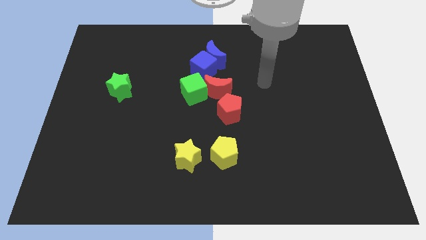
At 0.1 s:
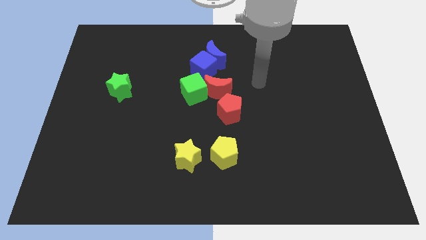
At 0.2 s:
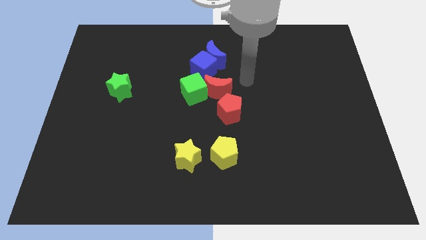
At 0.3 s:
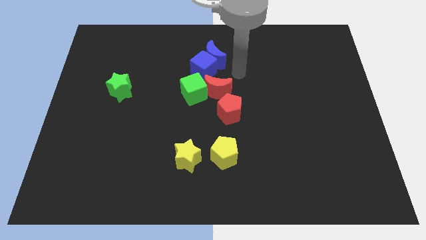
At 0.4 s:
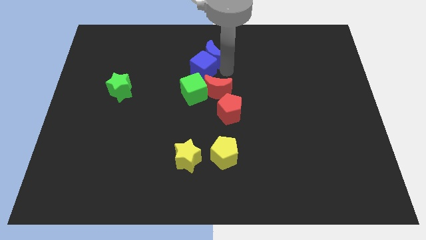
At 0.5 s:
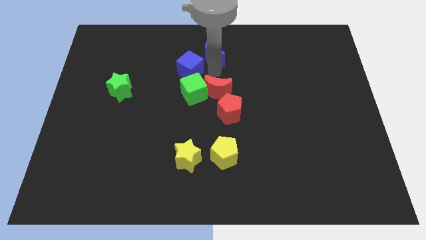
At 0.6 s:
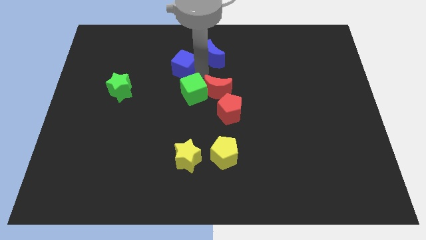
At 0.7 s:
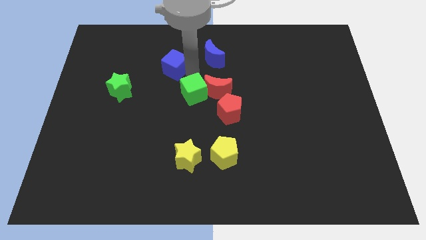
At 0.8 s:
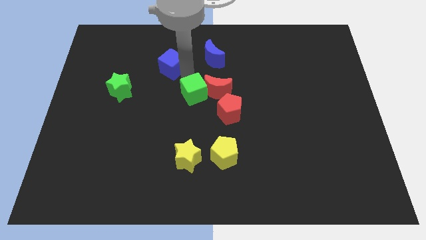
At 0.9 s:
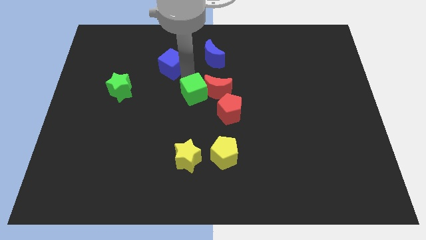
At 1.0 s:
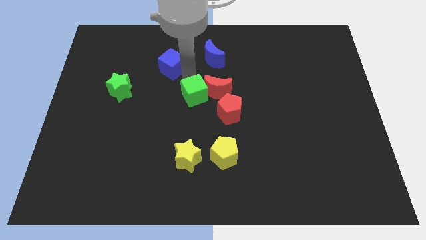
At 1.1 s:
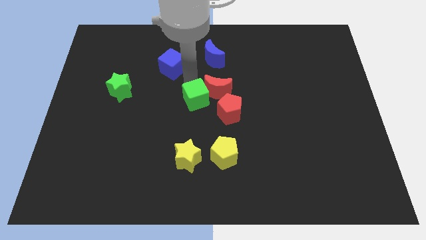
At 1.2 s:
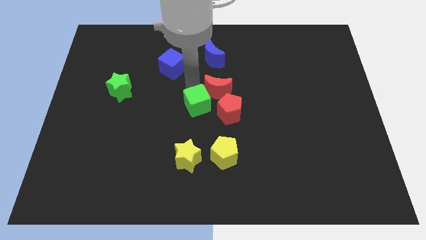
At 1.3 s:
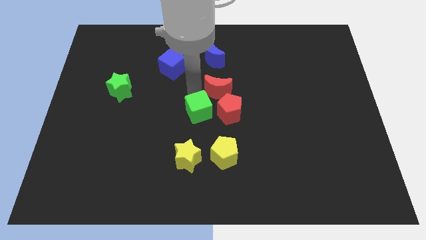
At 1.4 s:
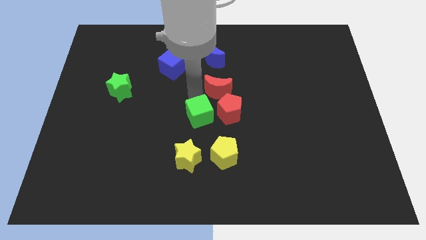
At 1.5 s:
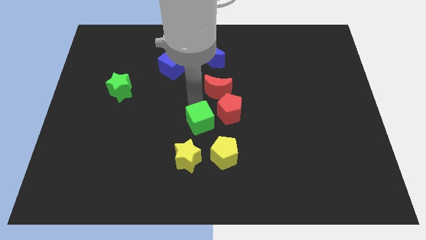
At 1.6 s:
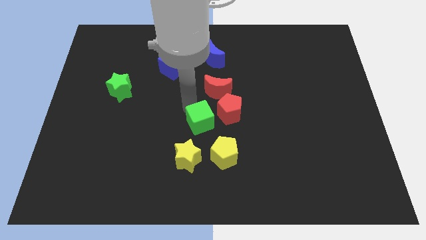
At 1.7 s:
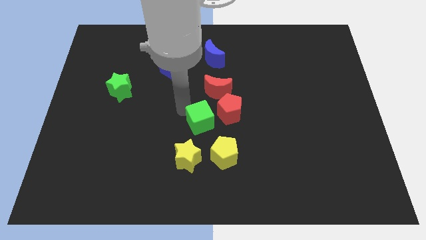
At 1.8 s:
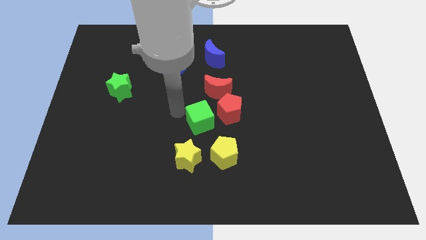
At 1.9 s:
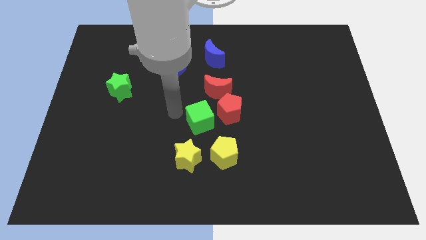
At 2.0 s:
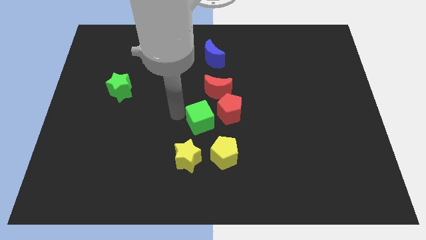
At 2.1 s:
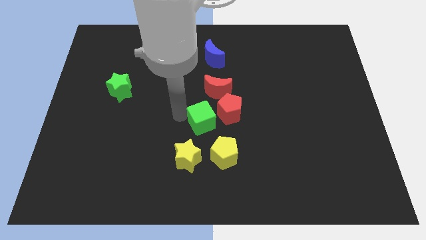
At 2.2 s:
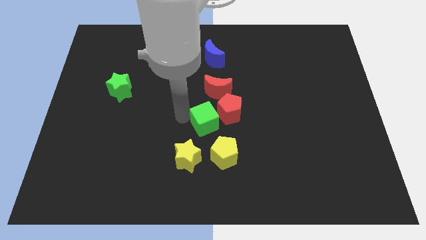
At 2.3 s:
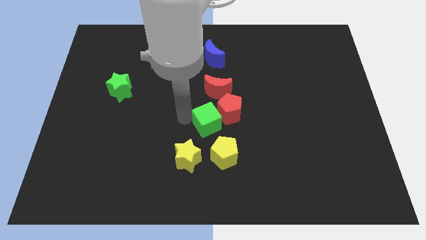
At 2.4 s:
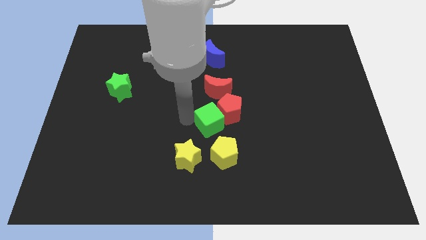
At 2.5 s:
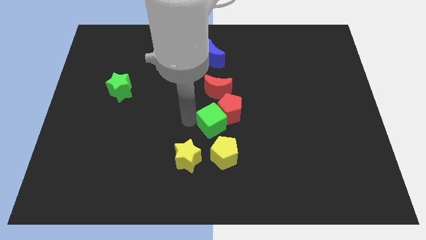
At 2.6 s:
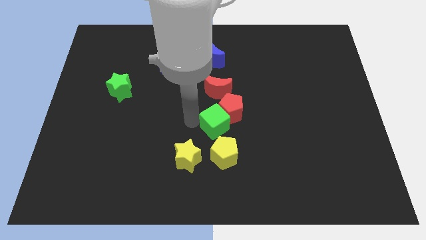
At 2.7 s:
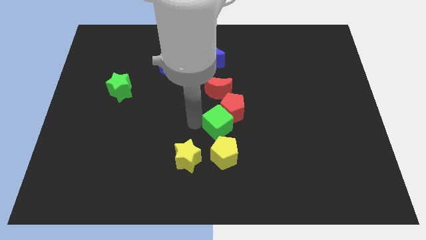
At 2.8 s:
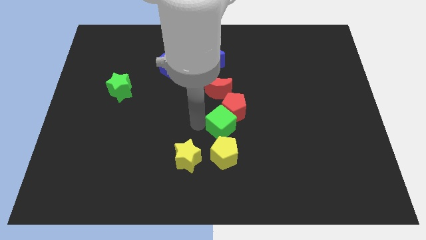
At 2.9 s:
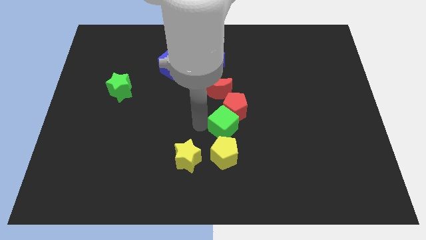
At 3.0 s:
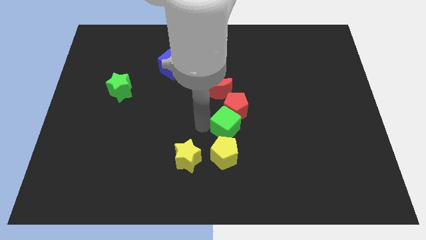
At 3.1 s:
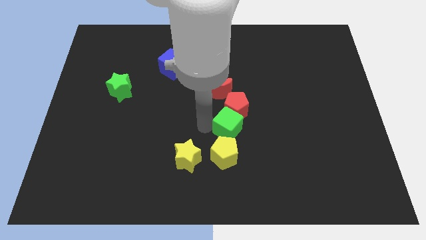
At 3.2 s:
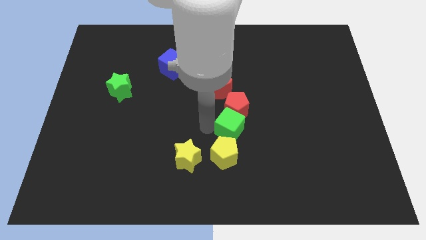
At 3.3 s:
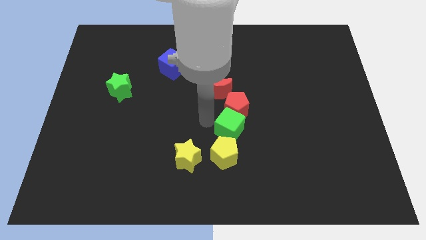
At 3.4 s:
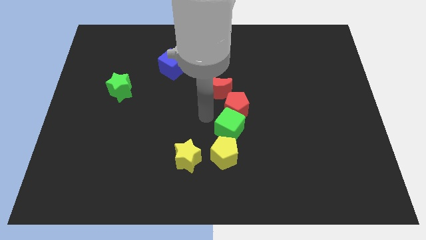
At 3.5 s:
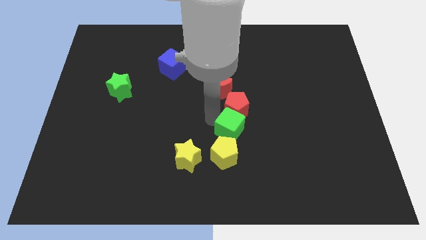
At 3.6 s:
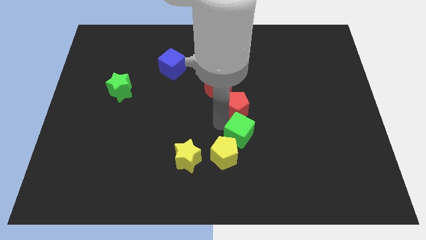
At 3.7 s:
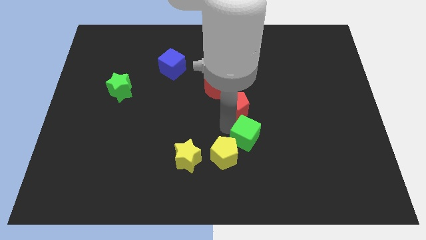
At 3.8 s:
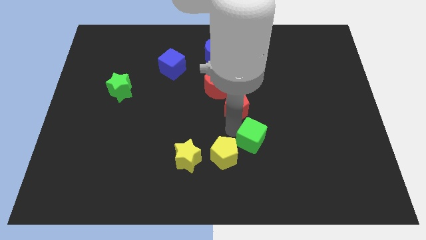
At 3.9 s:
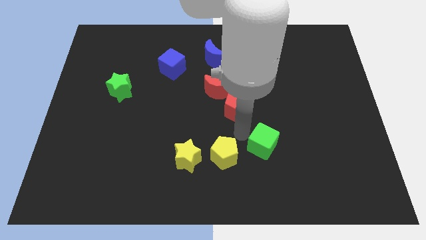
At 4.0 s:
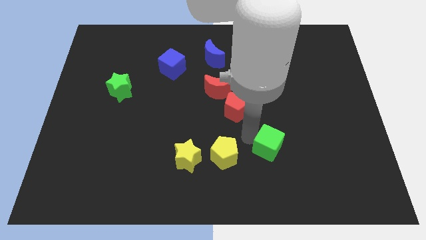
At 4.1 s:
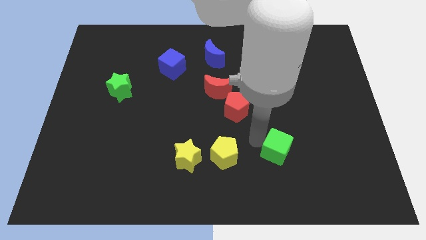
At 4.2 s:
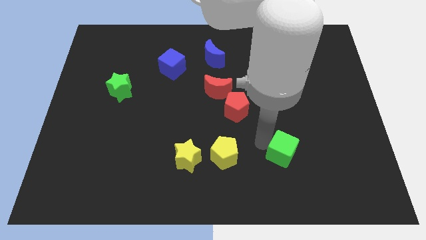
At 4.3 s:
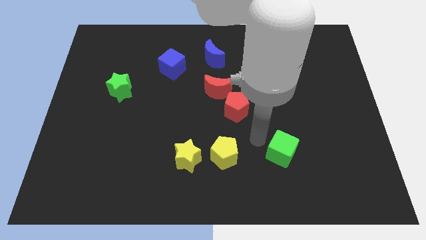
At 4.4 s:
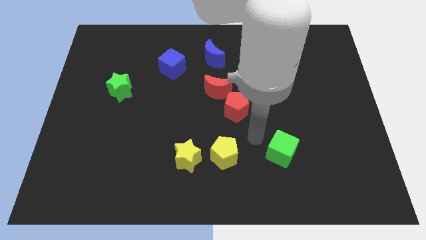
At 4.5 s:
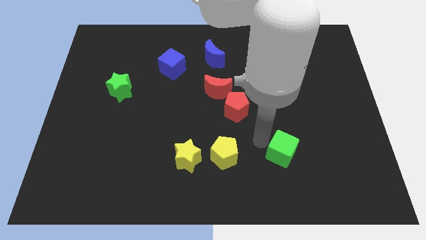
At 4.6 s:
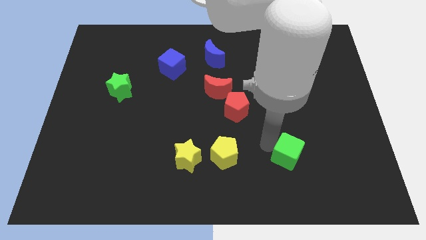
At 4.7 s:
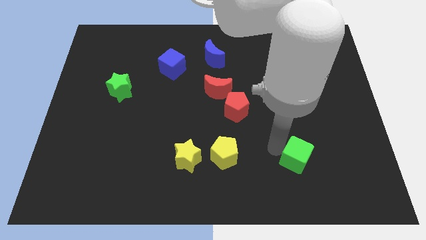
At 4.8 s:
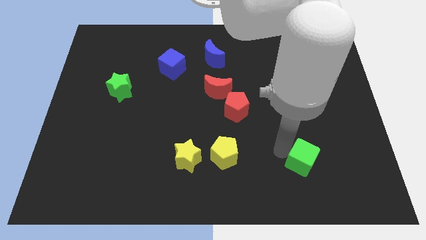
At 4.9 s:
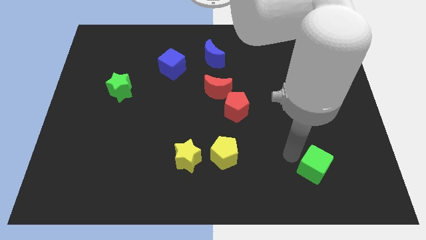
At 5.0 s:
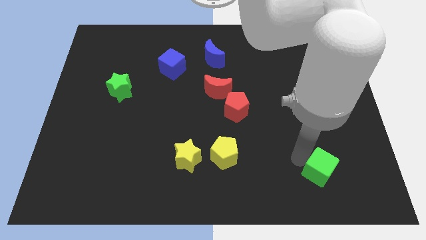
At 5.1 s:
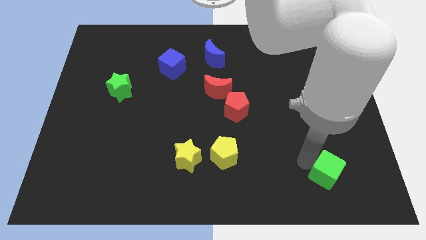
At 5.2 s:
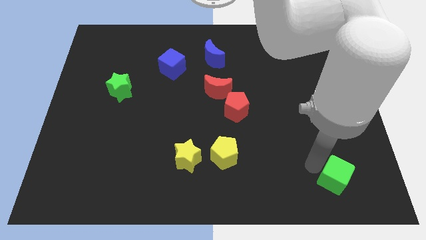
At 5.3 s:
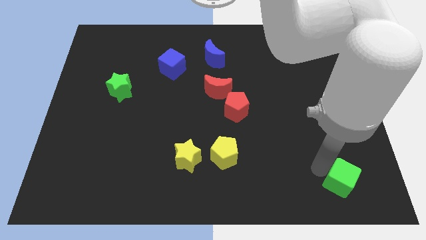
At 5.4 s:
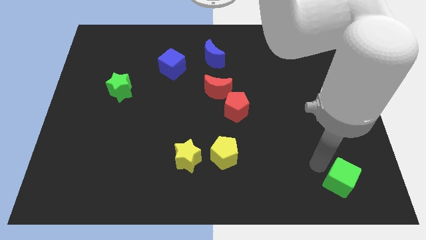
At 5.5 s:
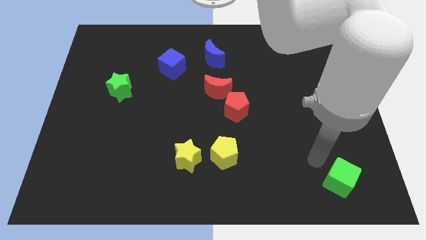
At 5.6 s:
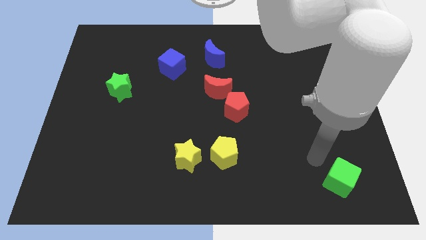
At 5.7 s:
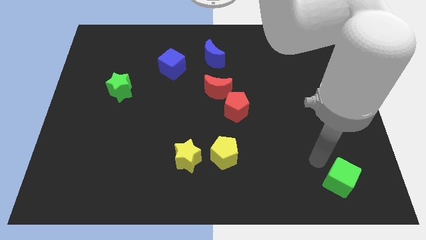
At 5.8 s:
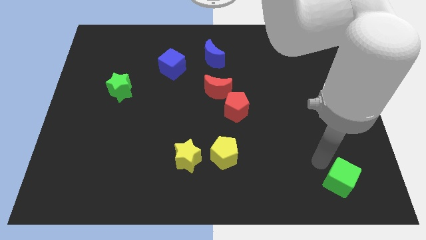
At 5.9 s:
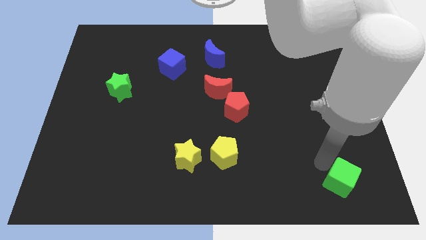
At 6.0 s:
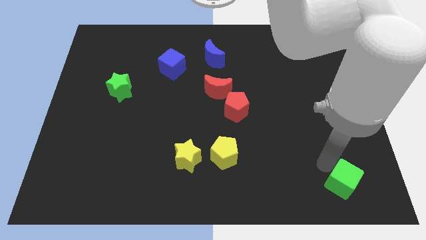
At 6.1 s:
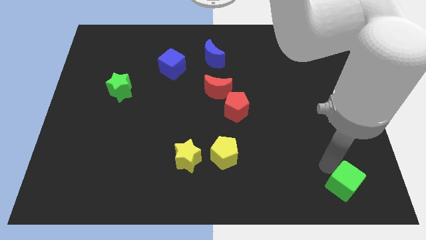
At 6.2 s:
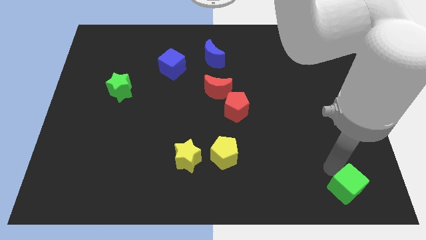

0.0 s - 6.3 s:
move the green cube to the bottom right
